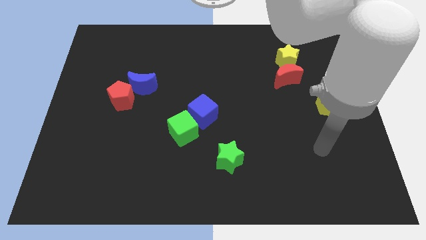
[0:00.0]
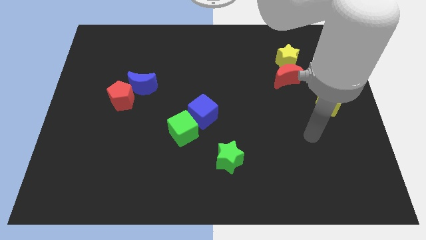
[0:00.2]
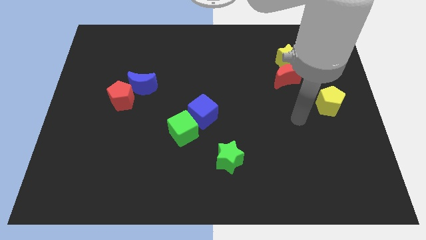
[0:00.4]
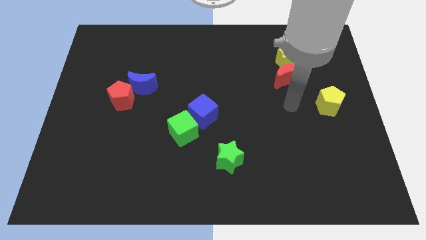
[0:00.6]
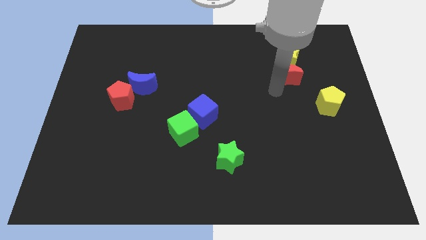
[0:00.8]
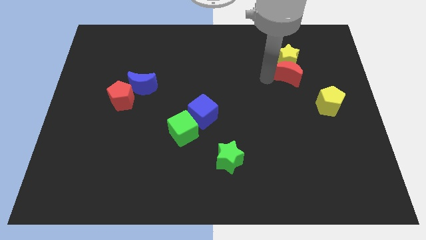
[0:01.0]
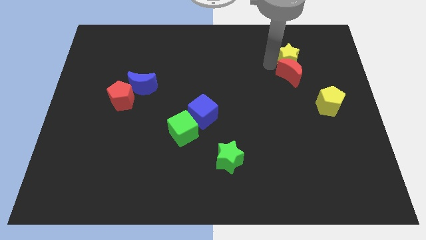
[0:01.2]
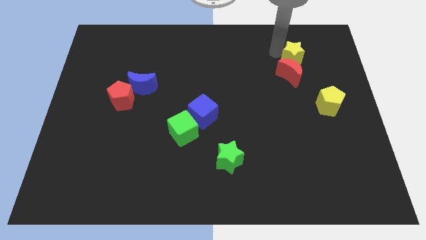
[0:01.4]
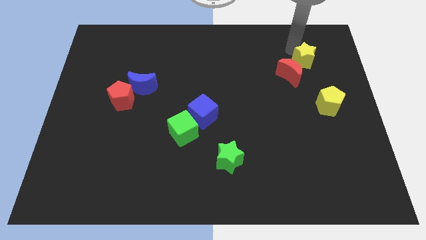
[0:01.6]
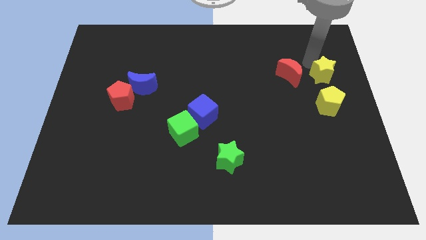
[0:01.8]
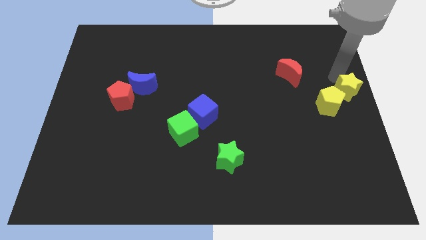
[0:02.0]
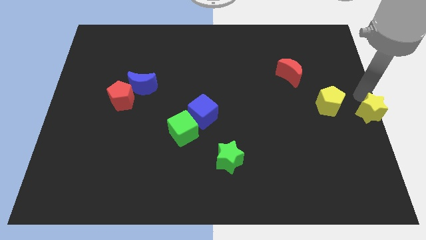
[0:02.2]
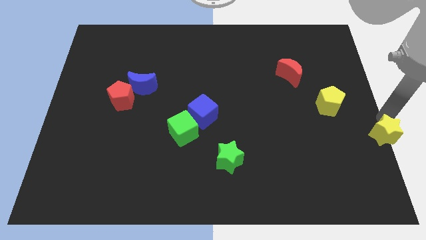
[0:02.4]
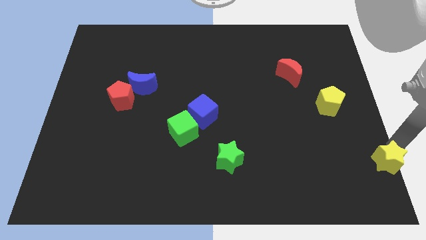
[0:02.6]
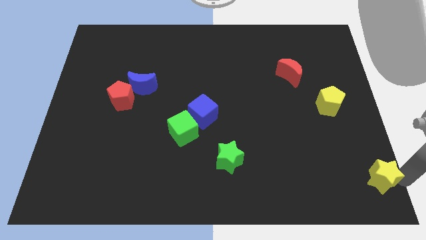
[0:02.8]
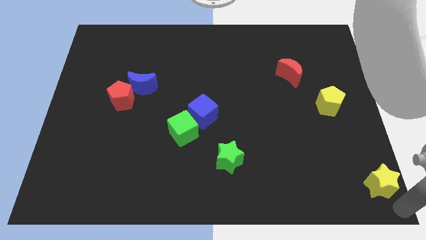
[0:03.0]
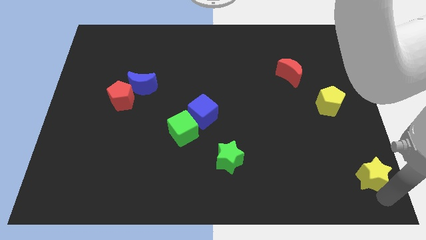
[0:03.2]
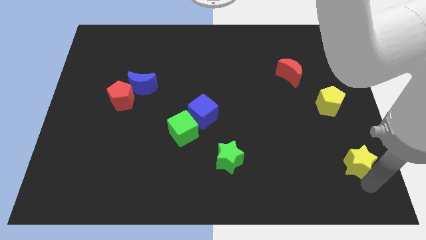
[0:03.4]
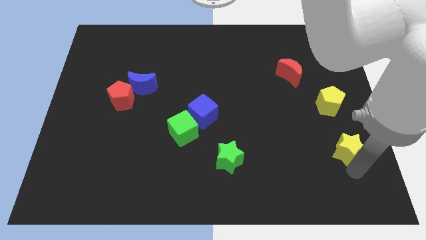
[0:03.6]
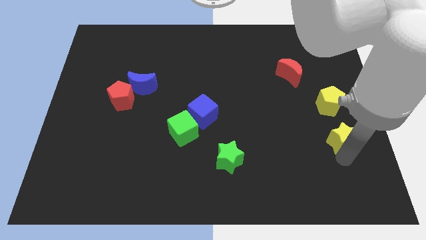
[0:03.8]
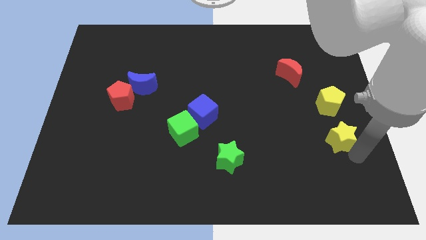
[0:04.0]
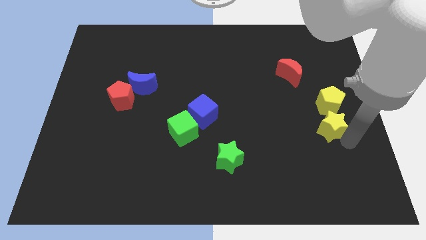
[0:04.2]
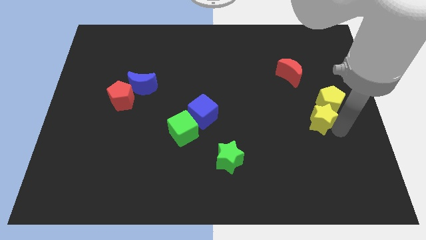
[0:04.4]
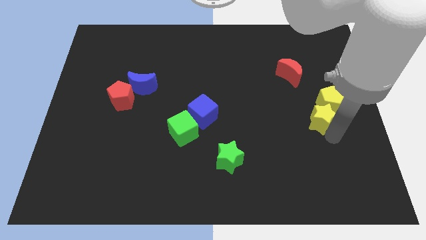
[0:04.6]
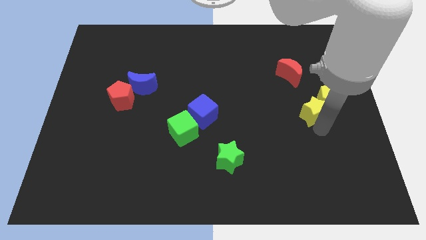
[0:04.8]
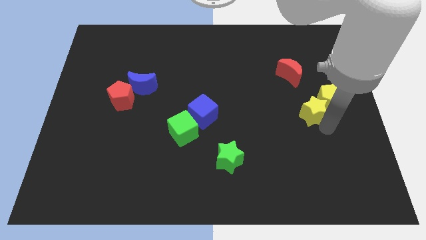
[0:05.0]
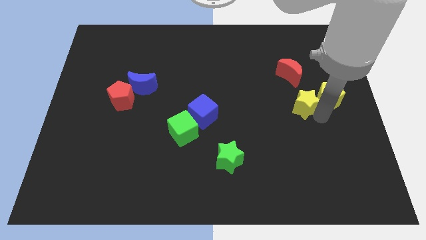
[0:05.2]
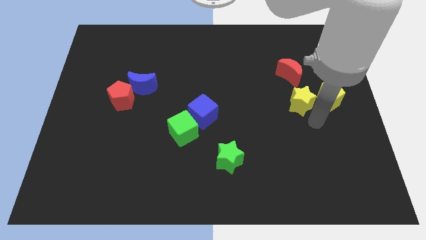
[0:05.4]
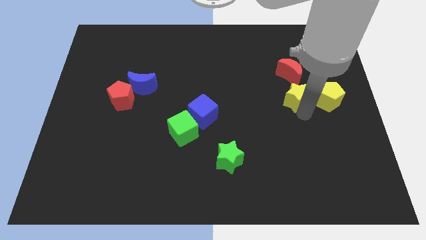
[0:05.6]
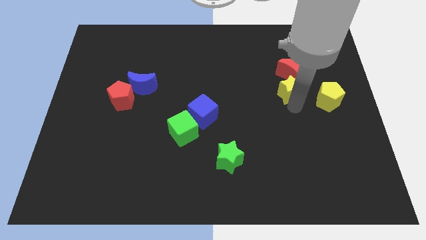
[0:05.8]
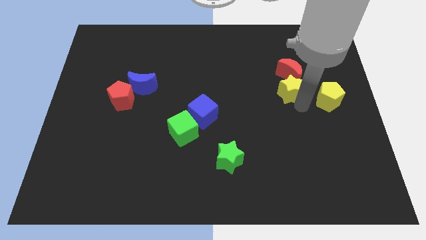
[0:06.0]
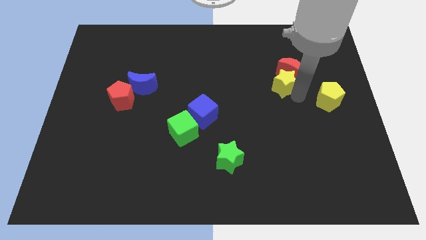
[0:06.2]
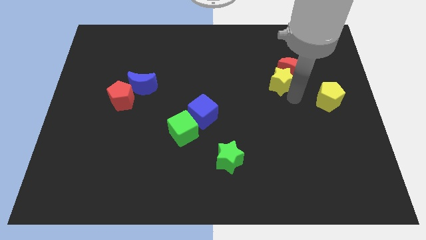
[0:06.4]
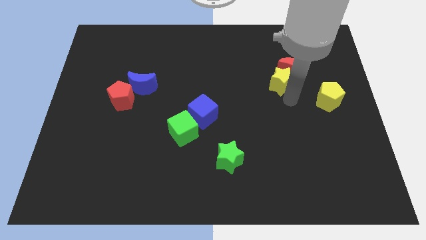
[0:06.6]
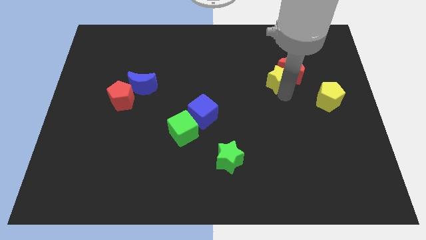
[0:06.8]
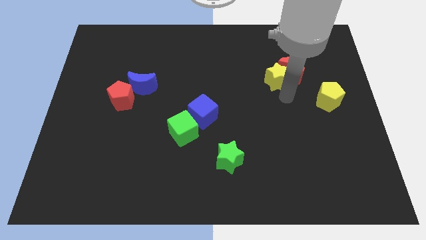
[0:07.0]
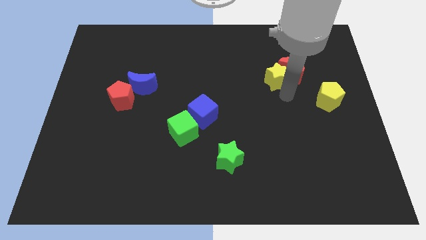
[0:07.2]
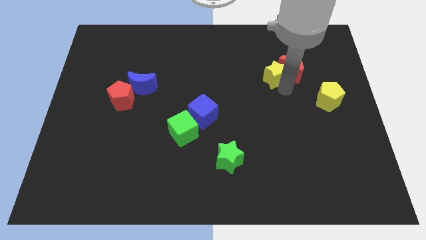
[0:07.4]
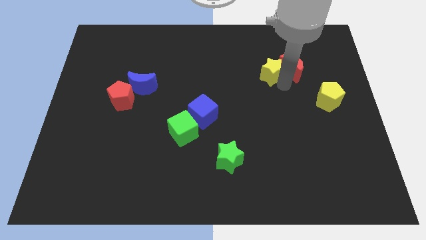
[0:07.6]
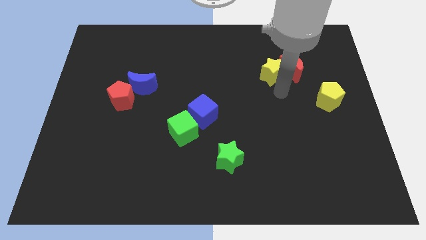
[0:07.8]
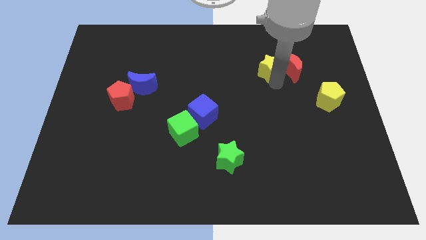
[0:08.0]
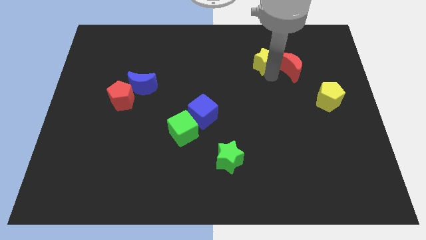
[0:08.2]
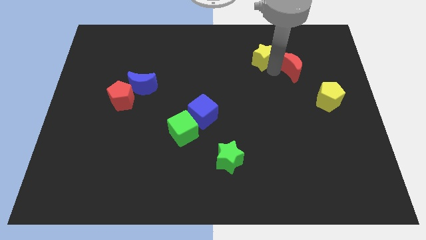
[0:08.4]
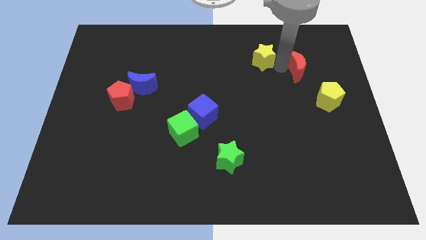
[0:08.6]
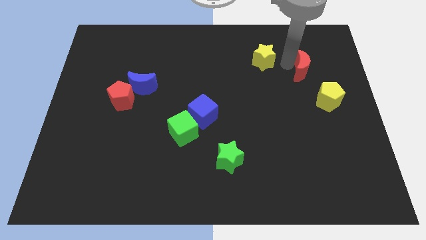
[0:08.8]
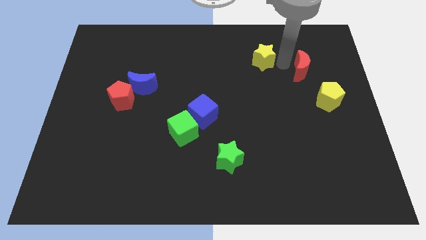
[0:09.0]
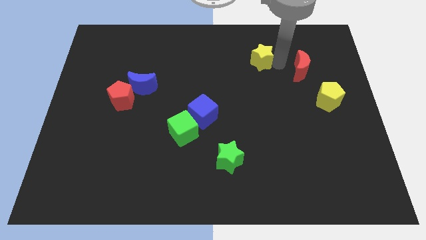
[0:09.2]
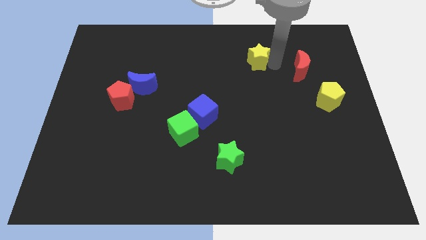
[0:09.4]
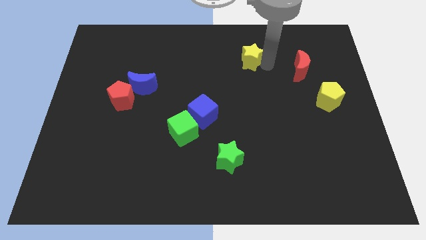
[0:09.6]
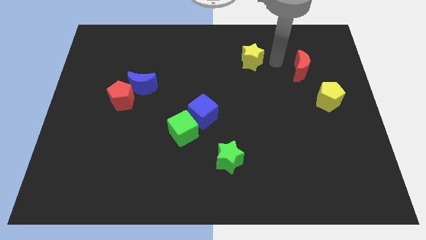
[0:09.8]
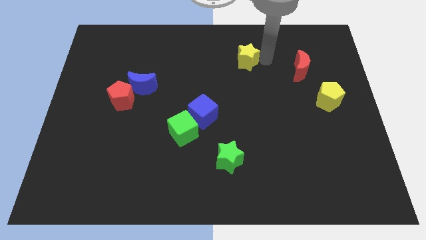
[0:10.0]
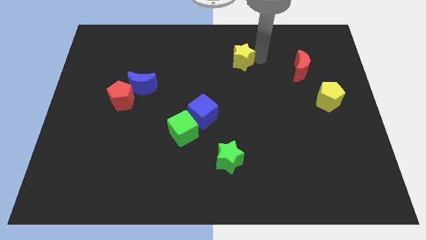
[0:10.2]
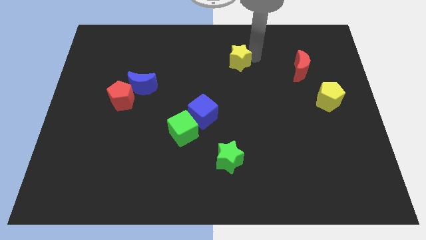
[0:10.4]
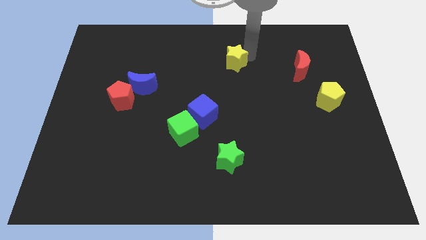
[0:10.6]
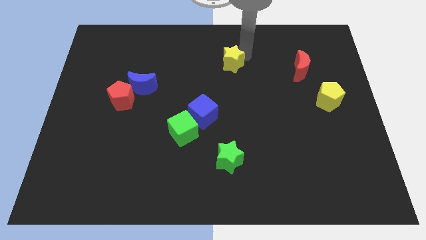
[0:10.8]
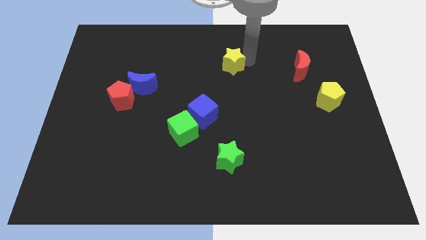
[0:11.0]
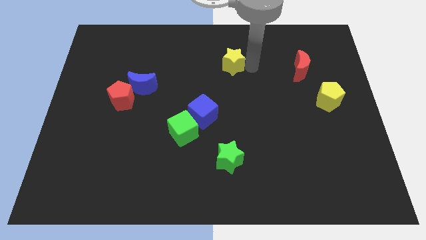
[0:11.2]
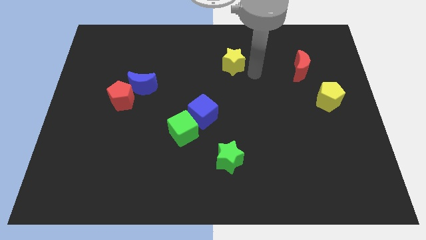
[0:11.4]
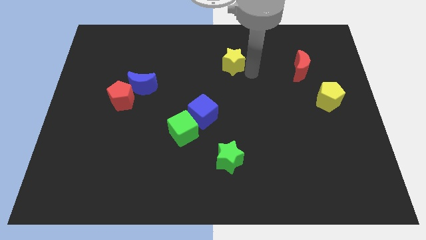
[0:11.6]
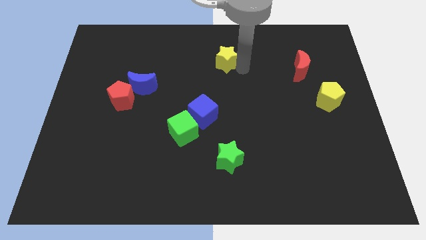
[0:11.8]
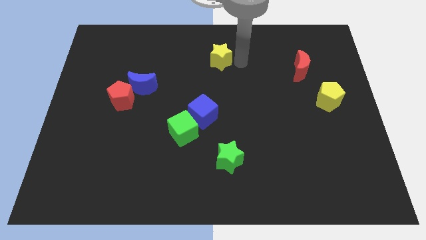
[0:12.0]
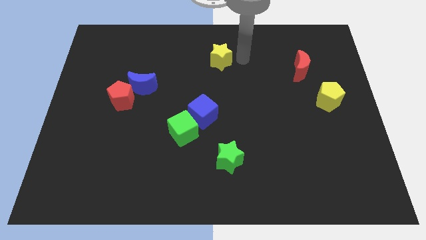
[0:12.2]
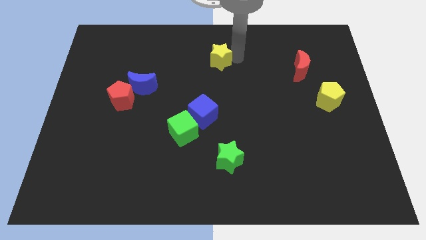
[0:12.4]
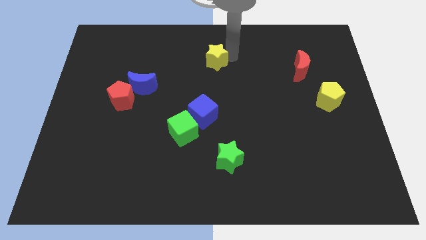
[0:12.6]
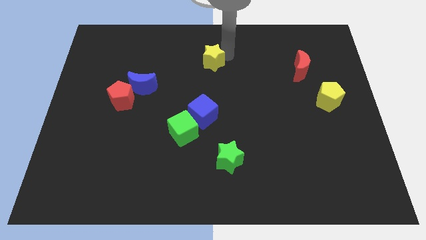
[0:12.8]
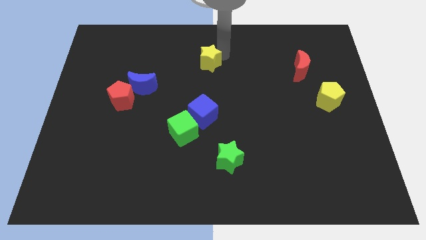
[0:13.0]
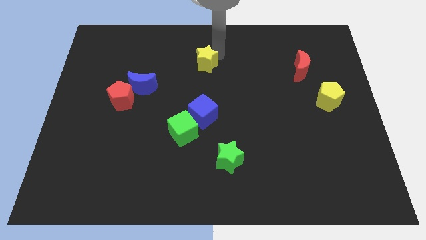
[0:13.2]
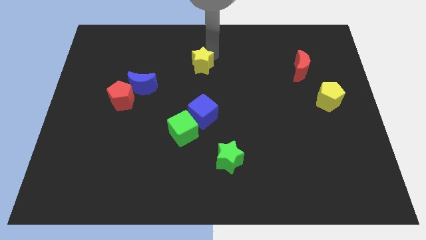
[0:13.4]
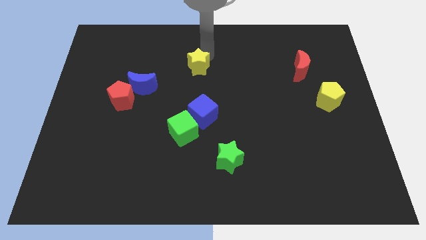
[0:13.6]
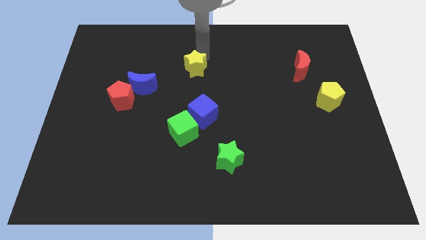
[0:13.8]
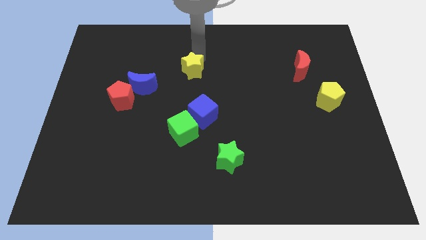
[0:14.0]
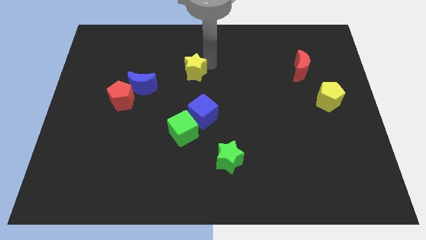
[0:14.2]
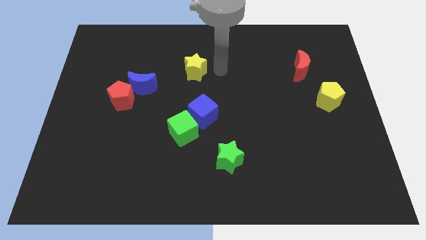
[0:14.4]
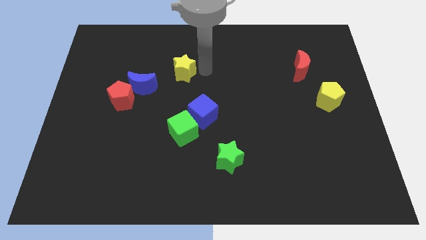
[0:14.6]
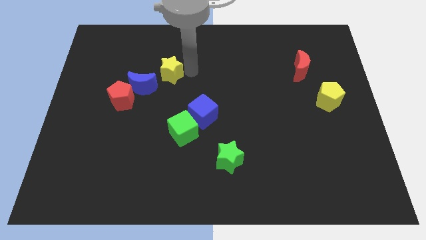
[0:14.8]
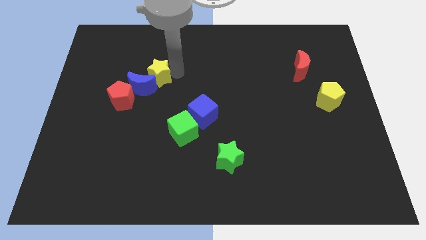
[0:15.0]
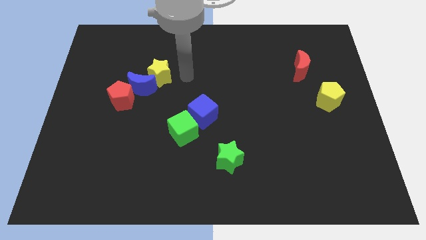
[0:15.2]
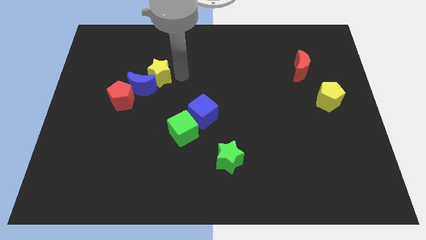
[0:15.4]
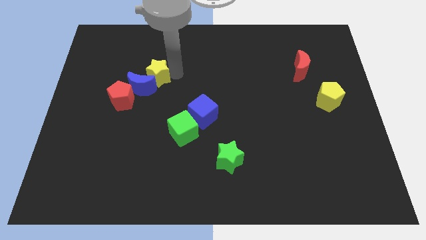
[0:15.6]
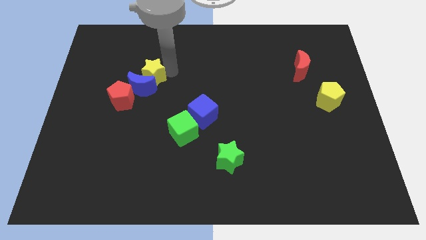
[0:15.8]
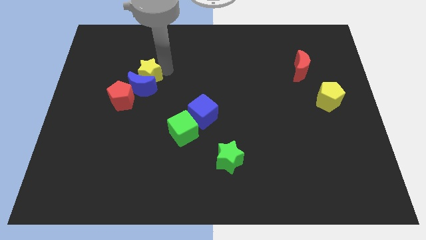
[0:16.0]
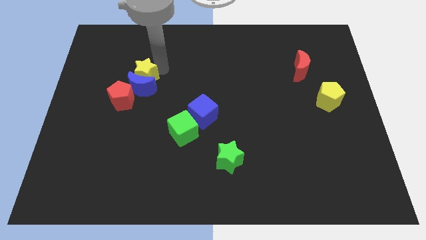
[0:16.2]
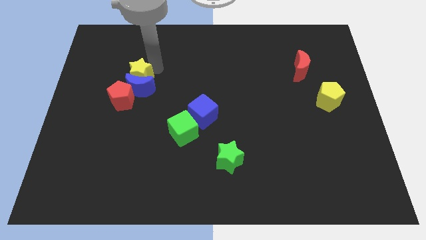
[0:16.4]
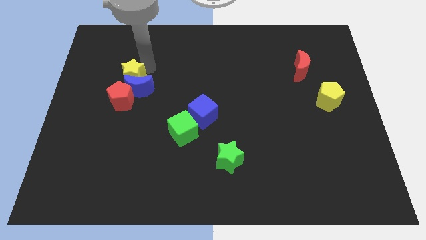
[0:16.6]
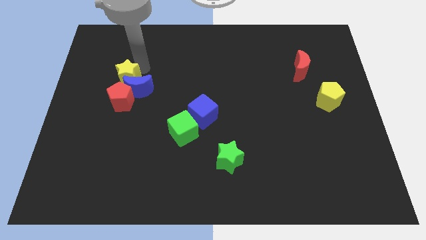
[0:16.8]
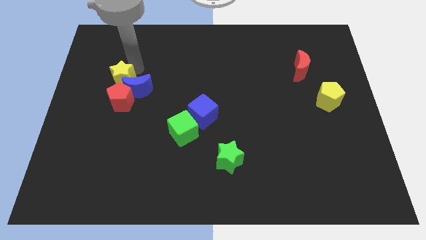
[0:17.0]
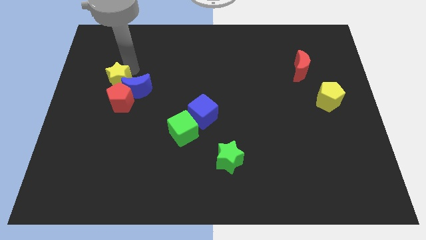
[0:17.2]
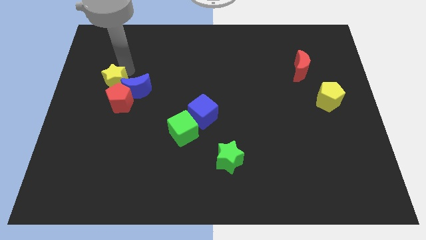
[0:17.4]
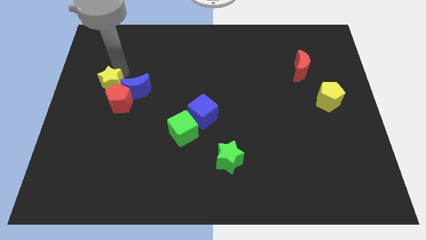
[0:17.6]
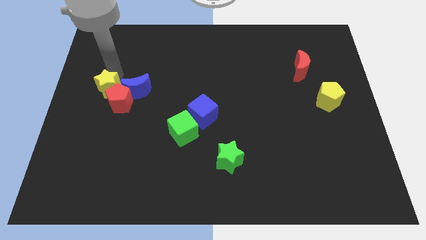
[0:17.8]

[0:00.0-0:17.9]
move the yellow star to the left side of the board
